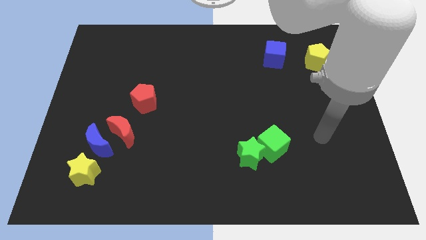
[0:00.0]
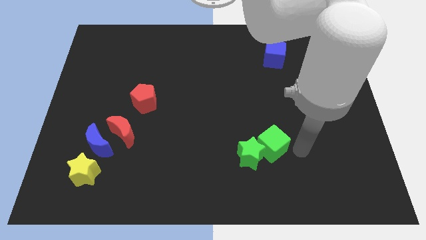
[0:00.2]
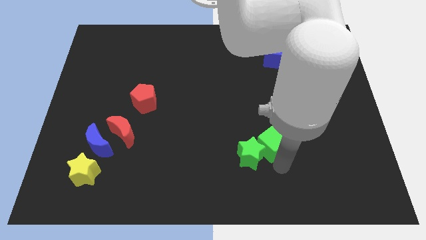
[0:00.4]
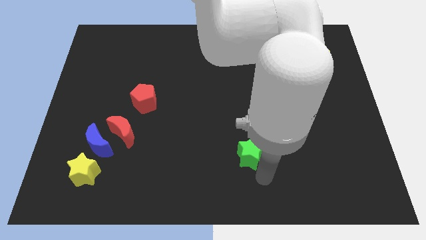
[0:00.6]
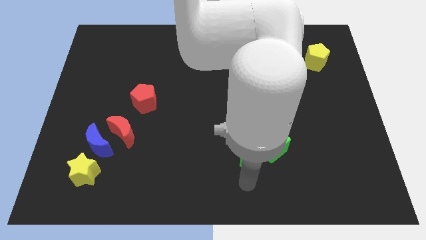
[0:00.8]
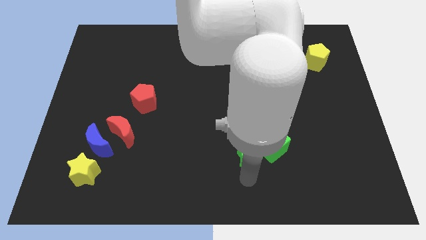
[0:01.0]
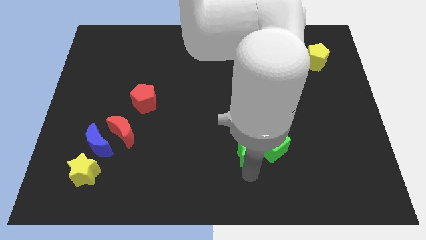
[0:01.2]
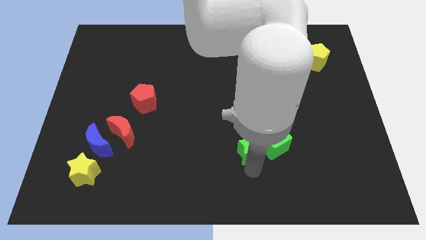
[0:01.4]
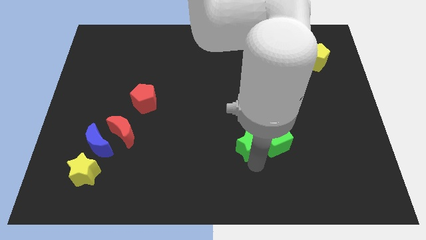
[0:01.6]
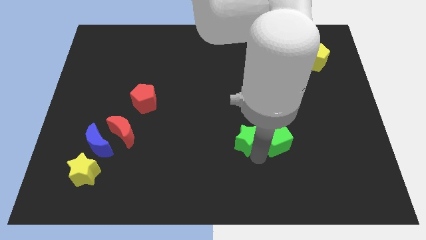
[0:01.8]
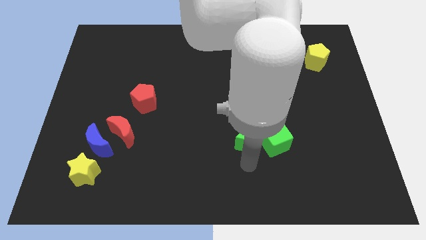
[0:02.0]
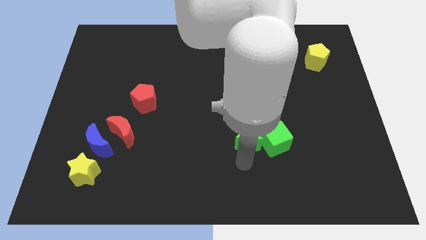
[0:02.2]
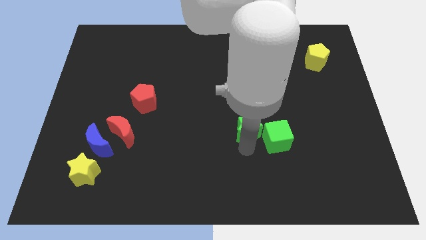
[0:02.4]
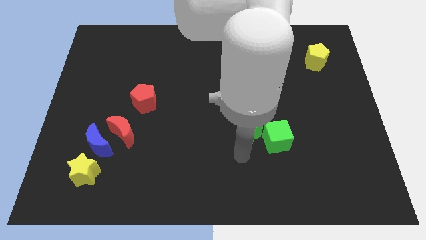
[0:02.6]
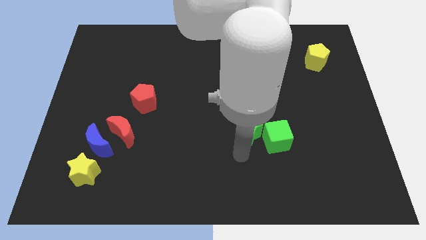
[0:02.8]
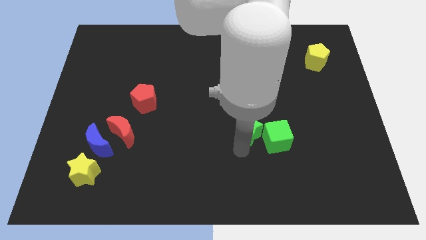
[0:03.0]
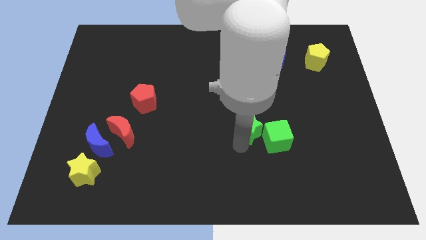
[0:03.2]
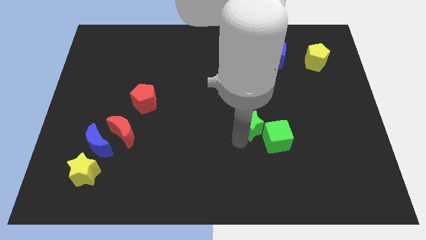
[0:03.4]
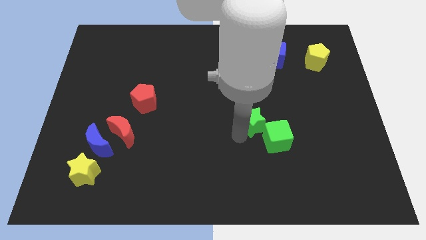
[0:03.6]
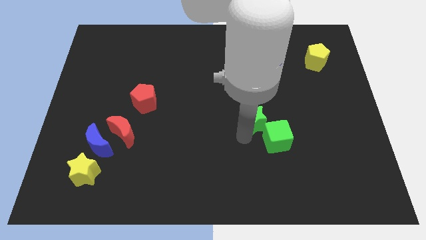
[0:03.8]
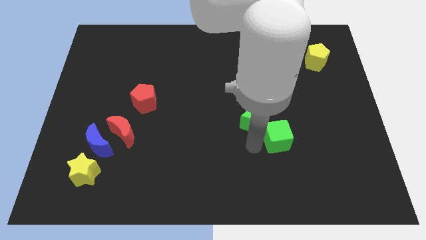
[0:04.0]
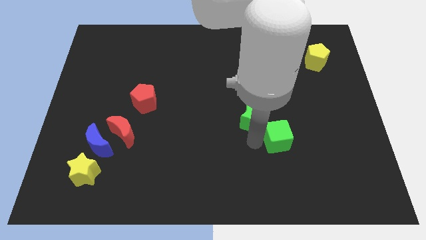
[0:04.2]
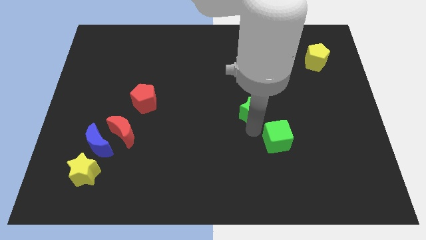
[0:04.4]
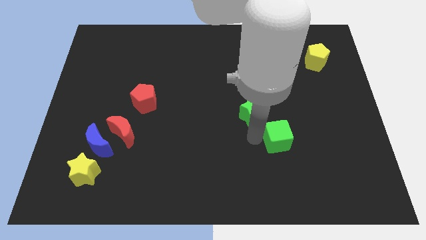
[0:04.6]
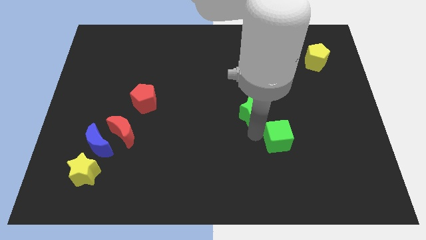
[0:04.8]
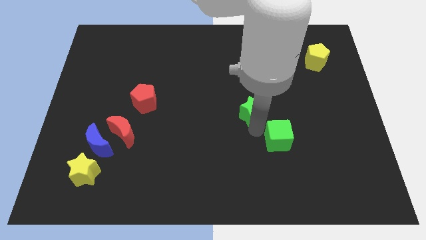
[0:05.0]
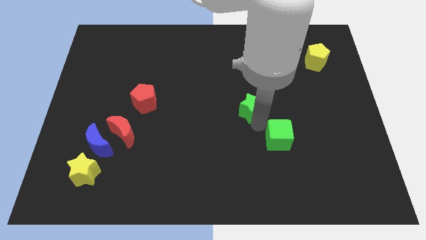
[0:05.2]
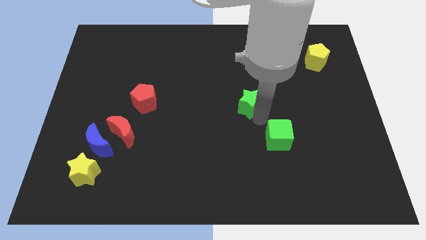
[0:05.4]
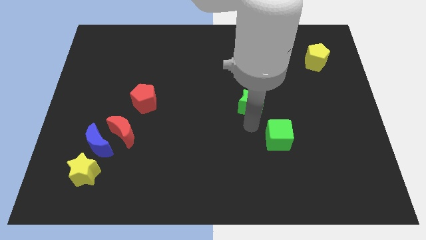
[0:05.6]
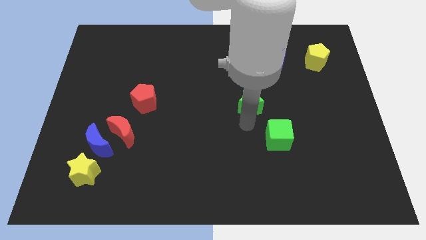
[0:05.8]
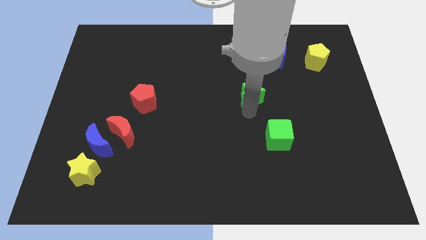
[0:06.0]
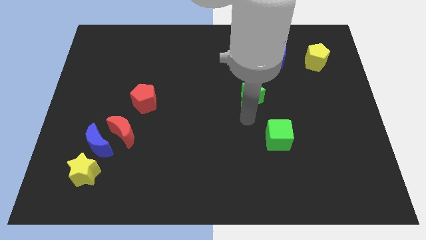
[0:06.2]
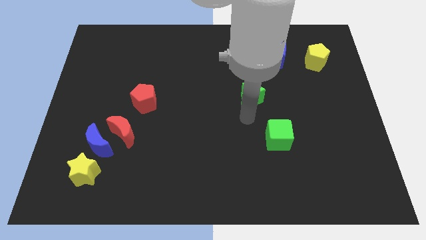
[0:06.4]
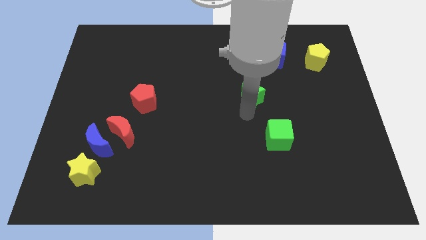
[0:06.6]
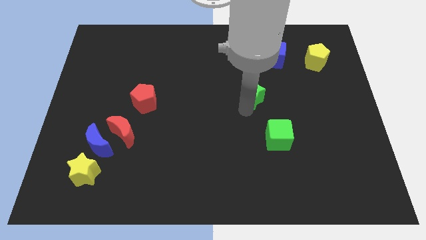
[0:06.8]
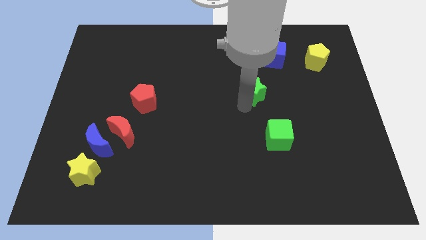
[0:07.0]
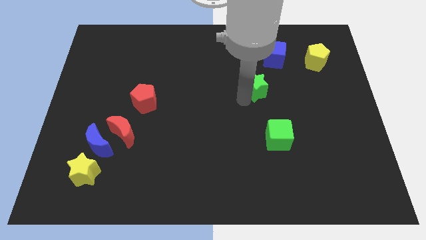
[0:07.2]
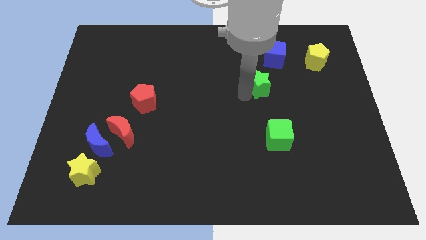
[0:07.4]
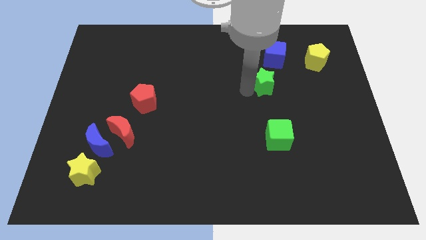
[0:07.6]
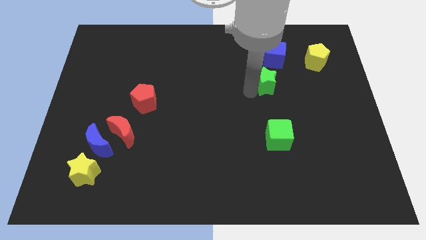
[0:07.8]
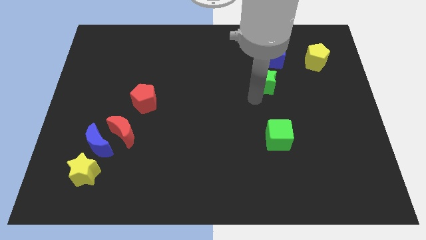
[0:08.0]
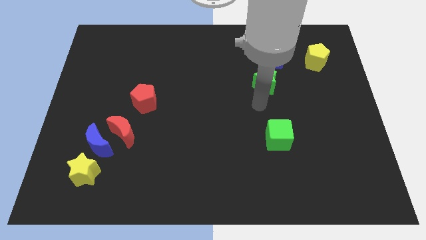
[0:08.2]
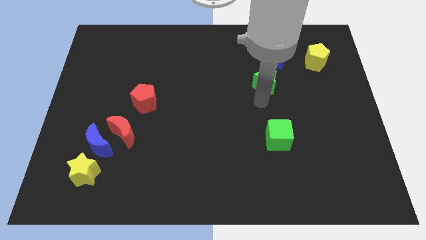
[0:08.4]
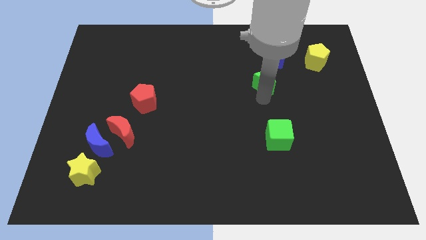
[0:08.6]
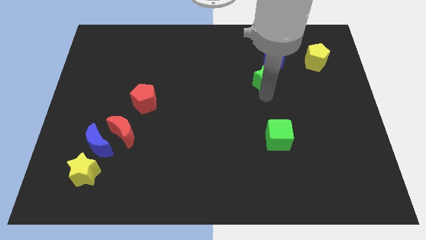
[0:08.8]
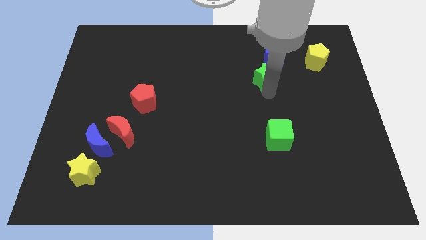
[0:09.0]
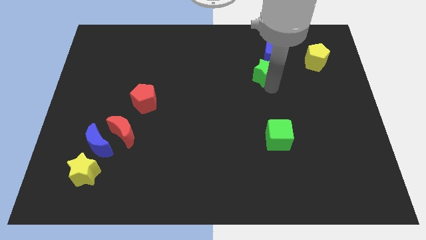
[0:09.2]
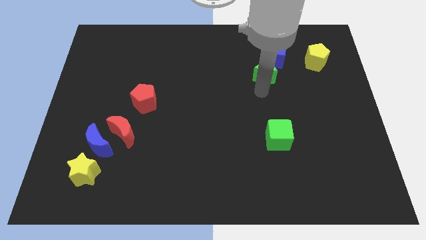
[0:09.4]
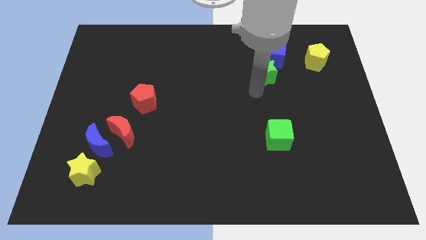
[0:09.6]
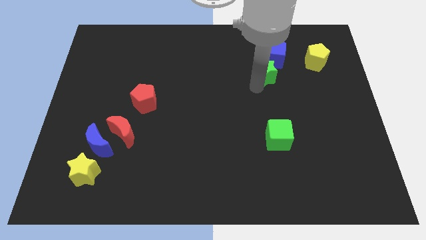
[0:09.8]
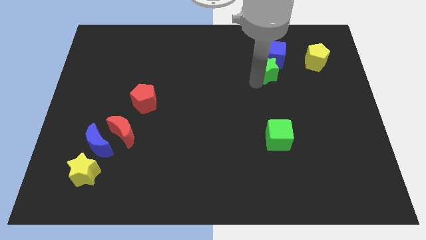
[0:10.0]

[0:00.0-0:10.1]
push the green star close to the blue cube

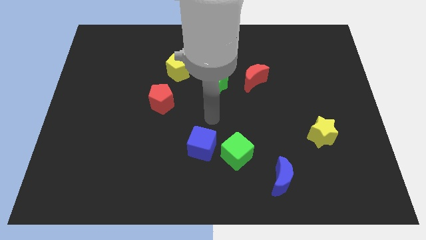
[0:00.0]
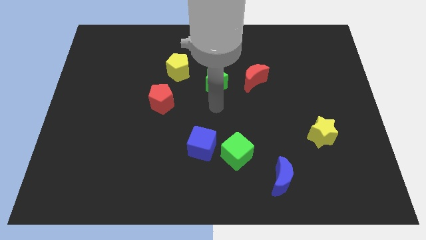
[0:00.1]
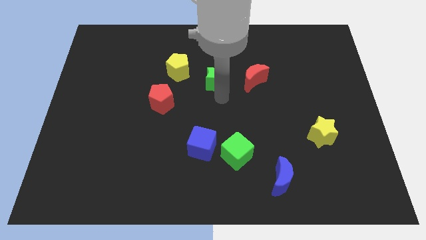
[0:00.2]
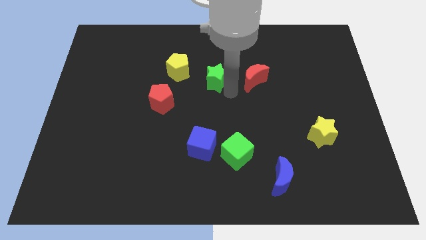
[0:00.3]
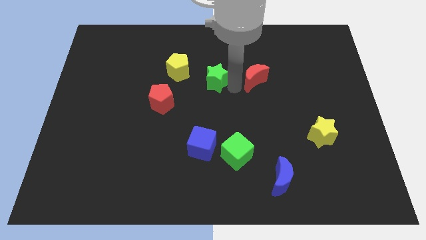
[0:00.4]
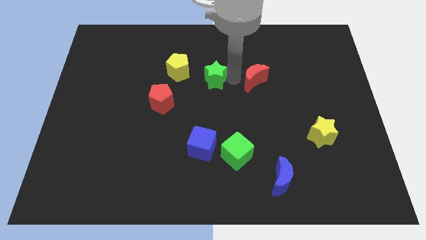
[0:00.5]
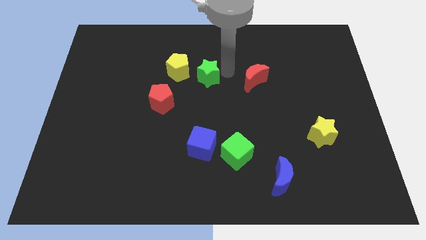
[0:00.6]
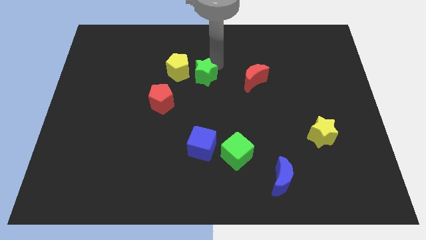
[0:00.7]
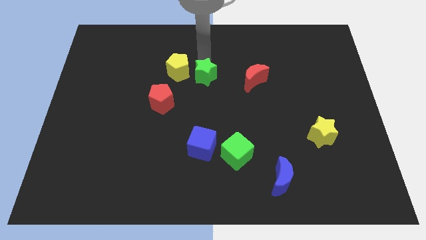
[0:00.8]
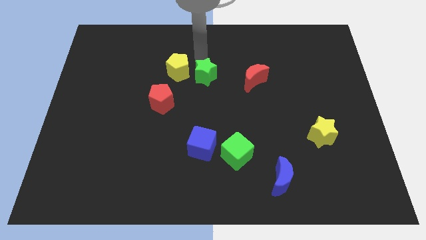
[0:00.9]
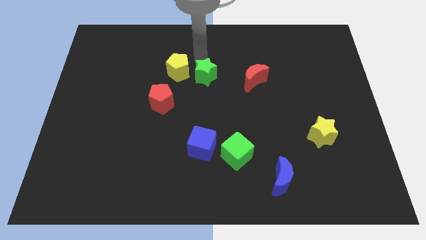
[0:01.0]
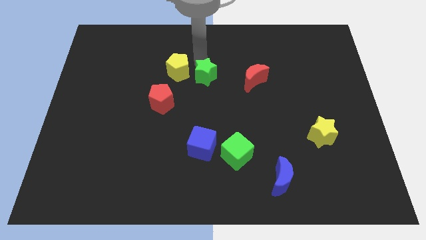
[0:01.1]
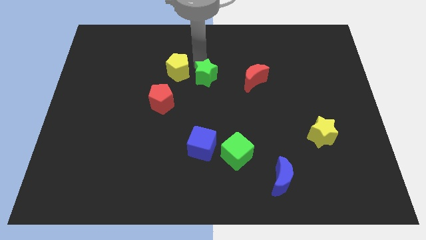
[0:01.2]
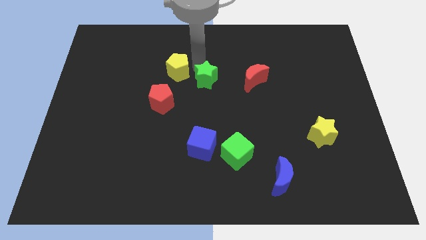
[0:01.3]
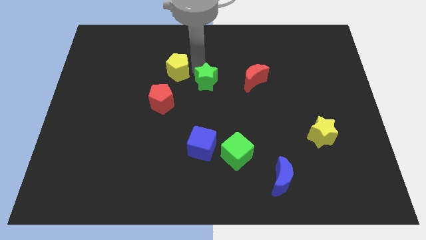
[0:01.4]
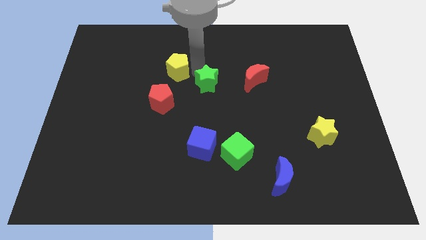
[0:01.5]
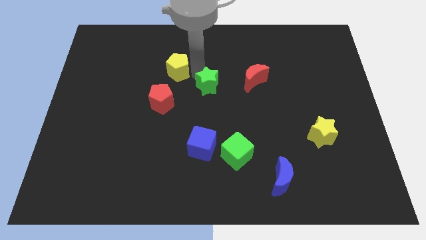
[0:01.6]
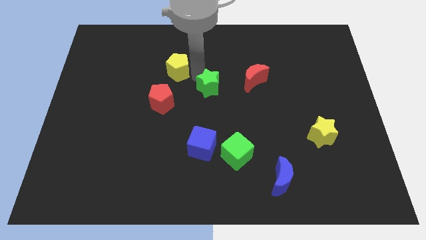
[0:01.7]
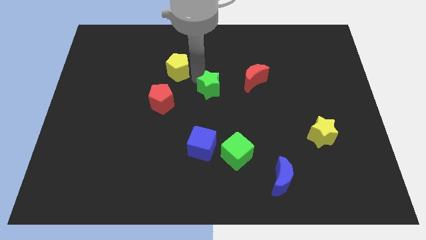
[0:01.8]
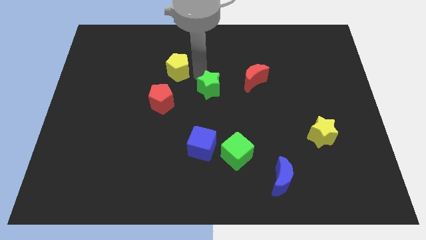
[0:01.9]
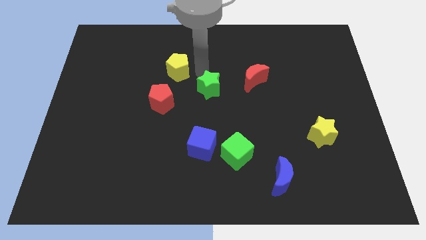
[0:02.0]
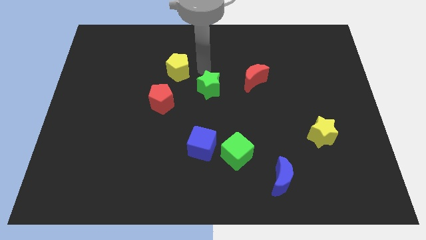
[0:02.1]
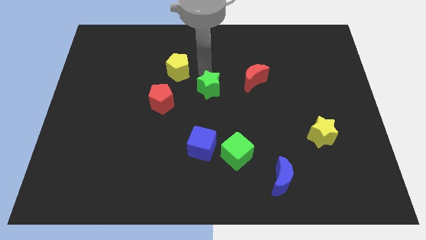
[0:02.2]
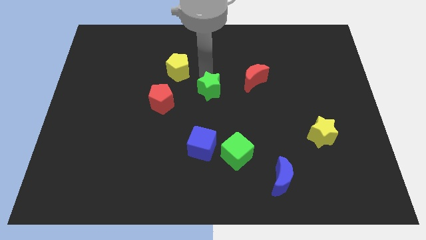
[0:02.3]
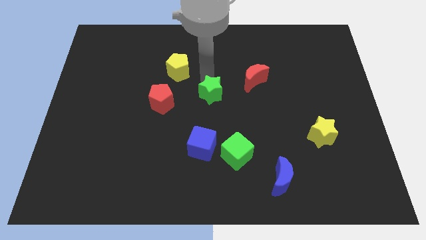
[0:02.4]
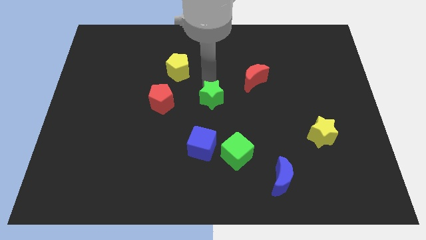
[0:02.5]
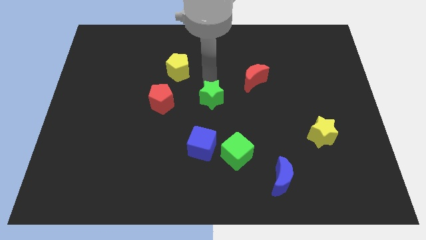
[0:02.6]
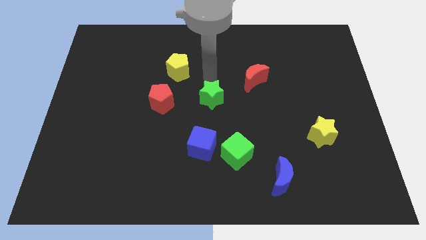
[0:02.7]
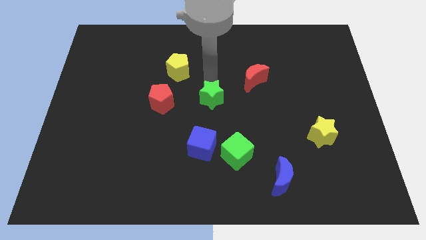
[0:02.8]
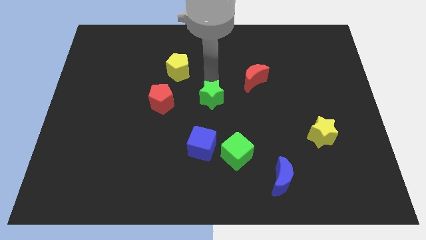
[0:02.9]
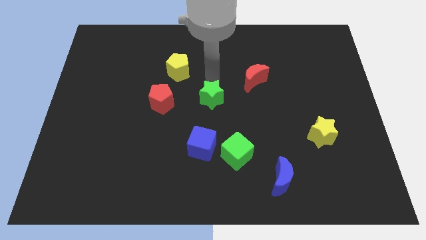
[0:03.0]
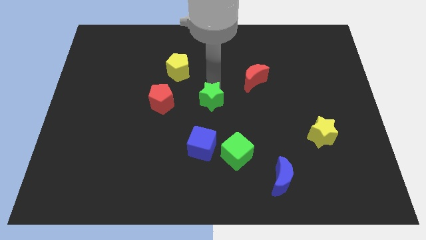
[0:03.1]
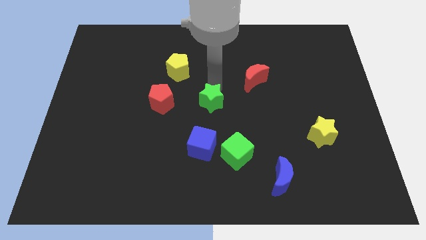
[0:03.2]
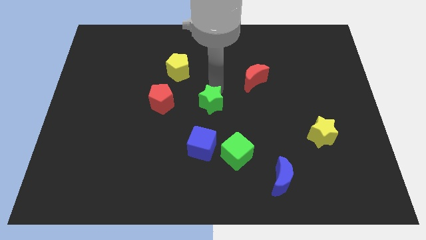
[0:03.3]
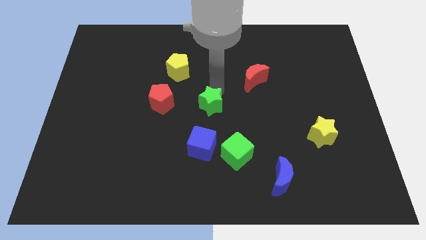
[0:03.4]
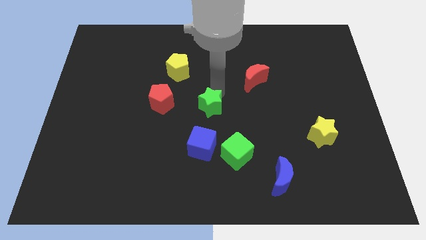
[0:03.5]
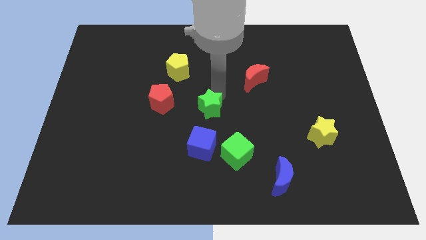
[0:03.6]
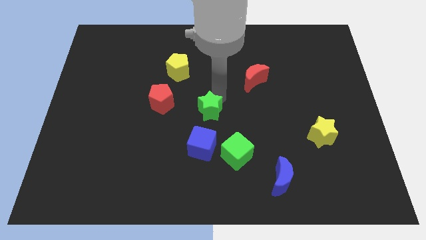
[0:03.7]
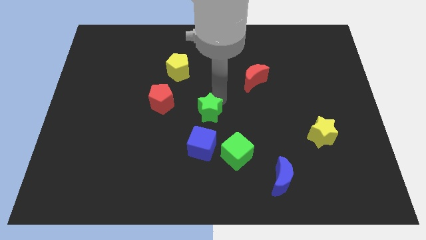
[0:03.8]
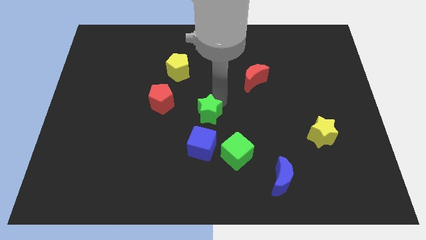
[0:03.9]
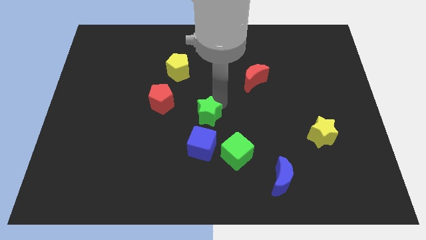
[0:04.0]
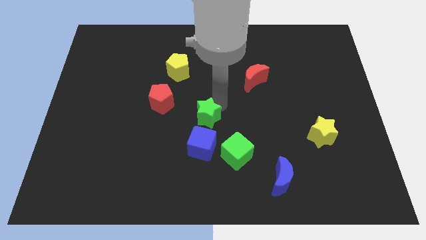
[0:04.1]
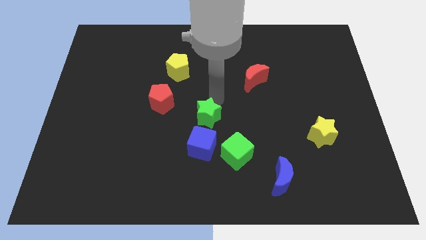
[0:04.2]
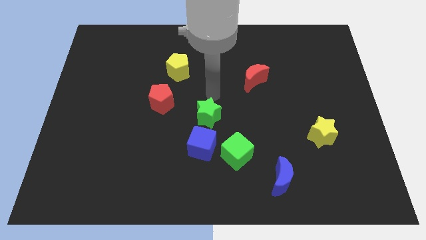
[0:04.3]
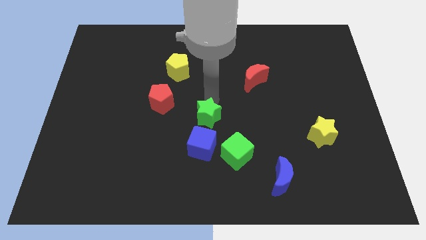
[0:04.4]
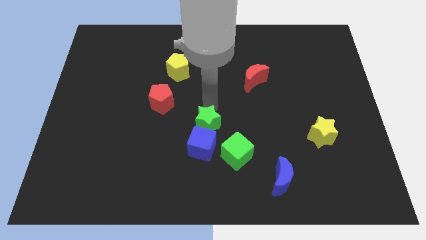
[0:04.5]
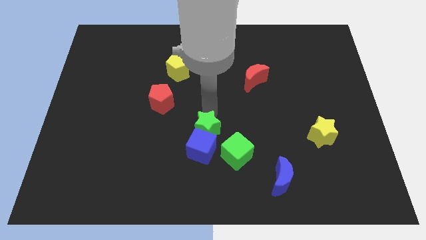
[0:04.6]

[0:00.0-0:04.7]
move the green star close to the blue cube
